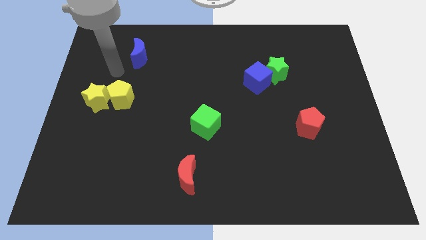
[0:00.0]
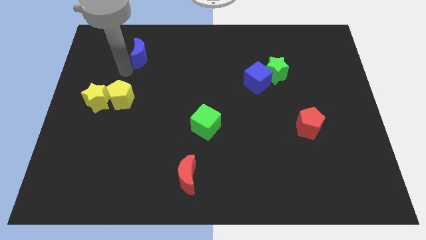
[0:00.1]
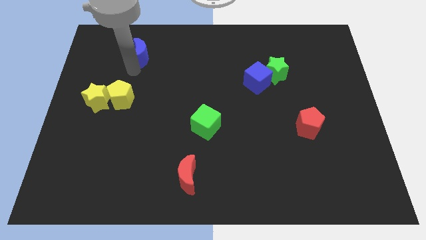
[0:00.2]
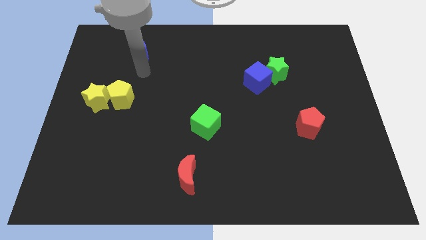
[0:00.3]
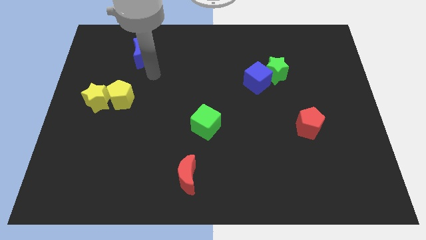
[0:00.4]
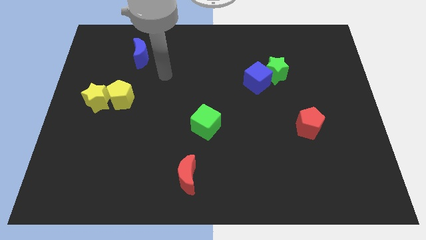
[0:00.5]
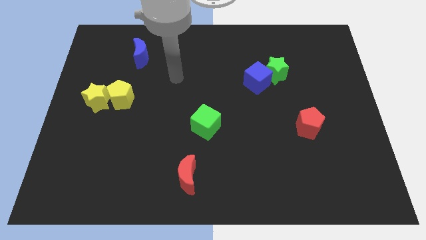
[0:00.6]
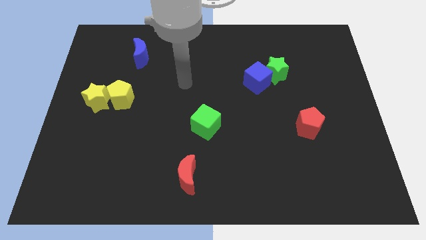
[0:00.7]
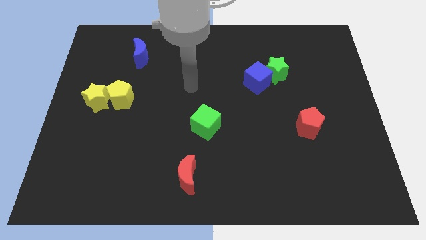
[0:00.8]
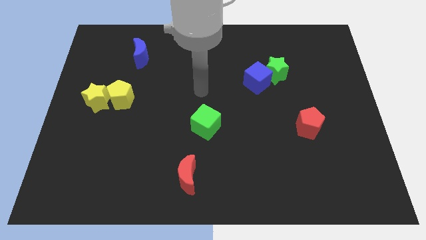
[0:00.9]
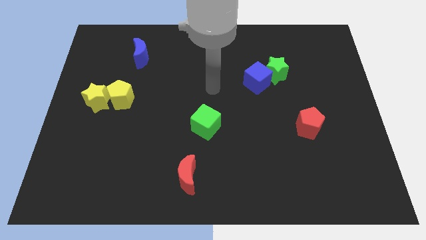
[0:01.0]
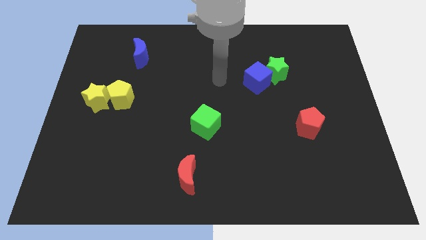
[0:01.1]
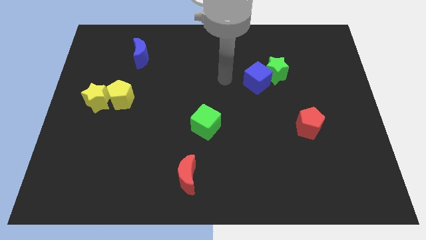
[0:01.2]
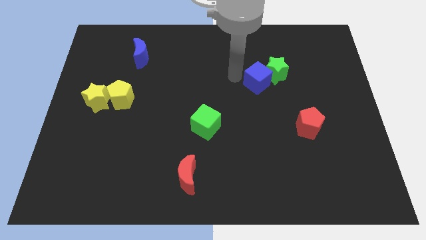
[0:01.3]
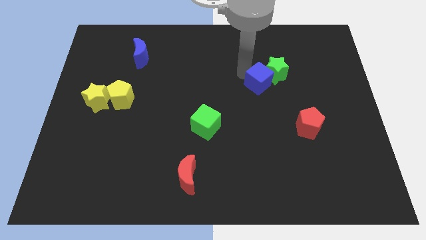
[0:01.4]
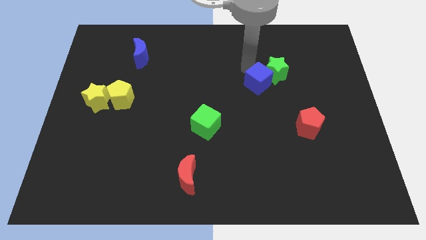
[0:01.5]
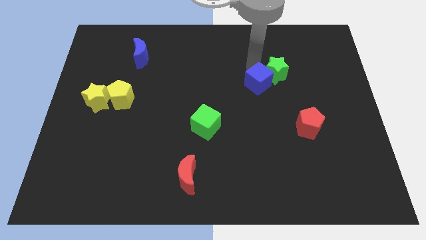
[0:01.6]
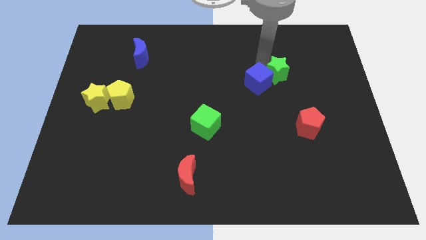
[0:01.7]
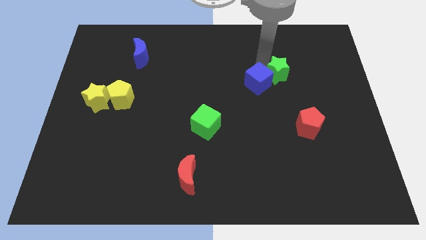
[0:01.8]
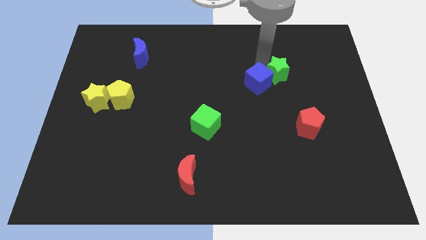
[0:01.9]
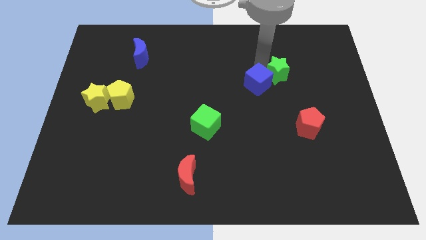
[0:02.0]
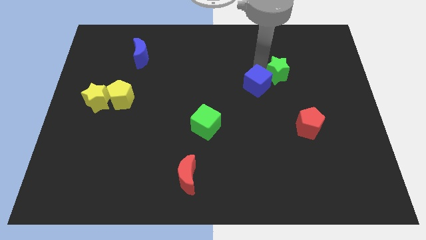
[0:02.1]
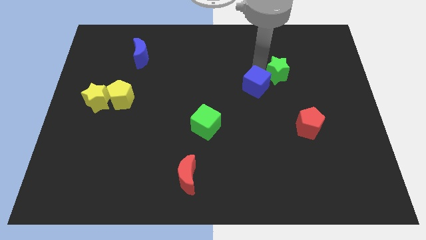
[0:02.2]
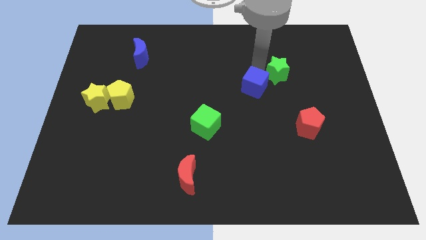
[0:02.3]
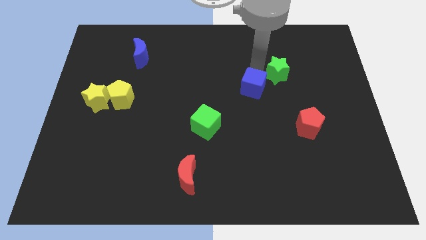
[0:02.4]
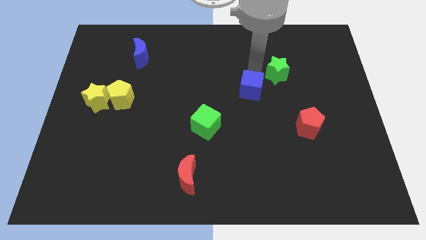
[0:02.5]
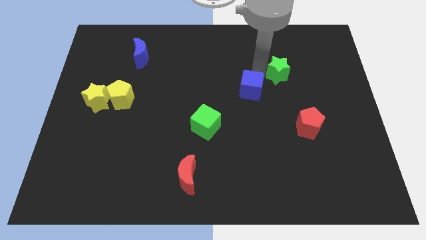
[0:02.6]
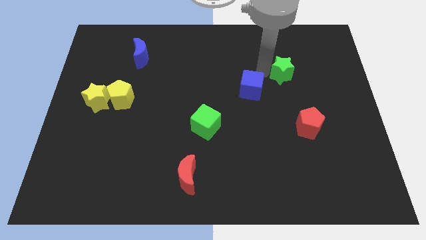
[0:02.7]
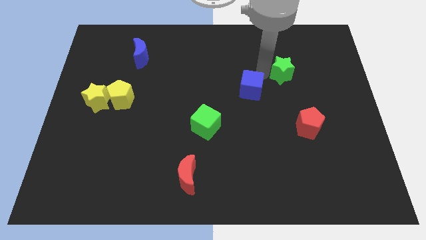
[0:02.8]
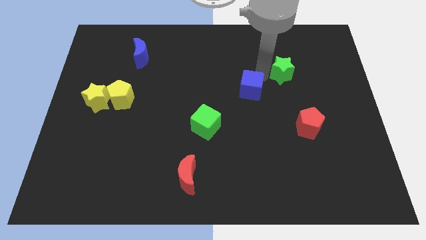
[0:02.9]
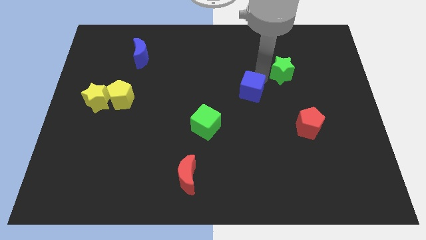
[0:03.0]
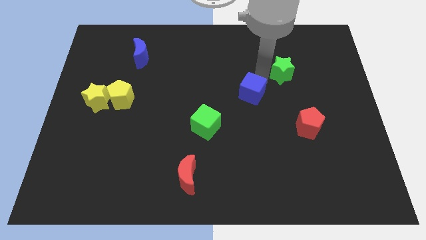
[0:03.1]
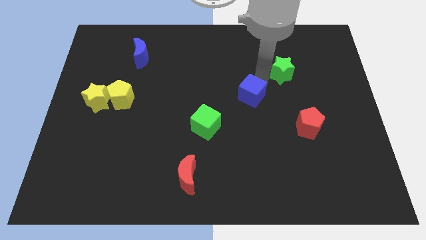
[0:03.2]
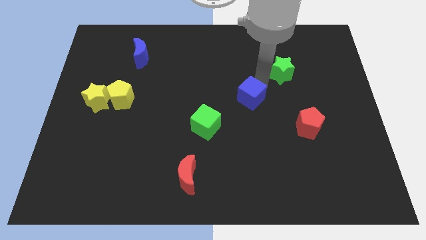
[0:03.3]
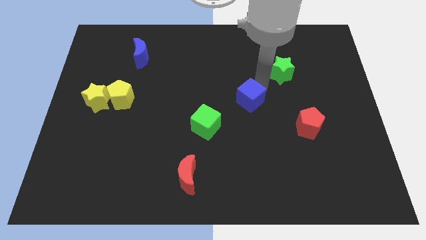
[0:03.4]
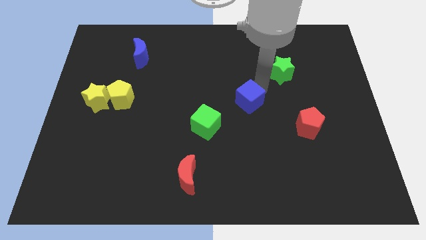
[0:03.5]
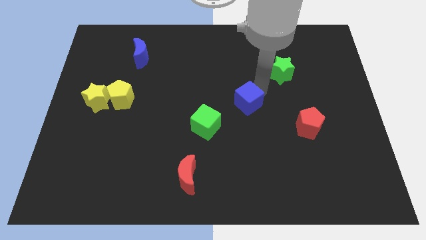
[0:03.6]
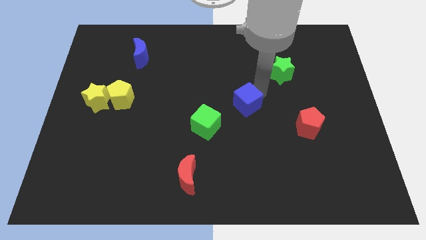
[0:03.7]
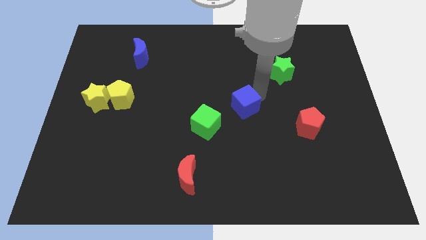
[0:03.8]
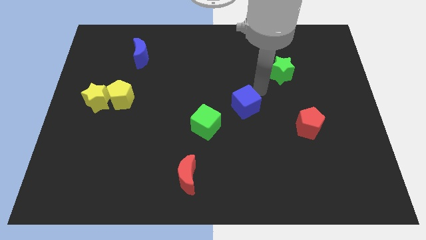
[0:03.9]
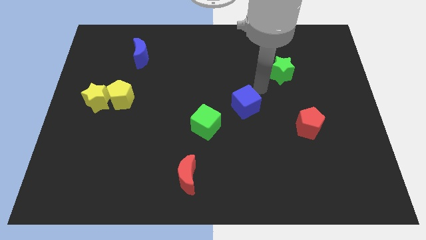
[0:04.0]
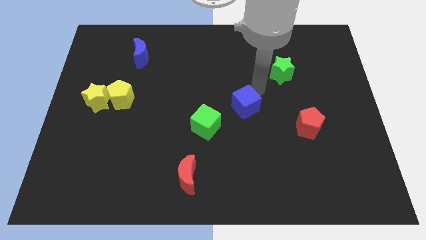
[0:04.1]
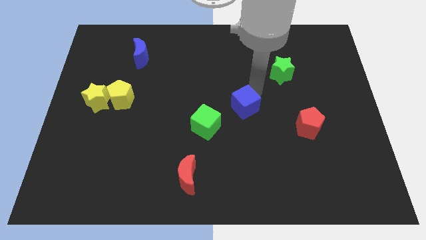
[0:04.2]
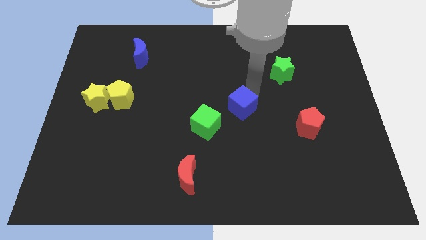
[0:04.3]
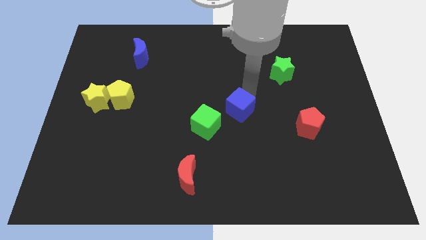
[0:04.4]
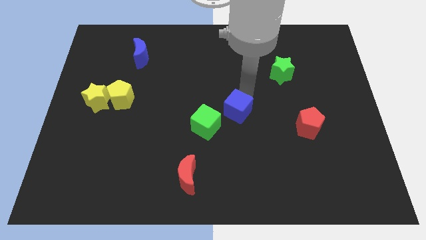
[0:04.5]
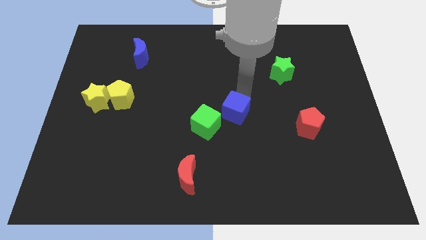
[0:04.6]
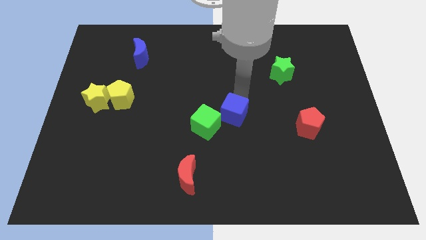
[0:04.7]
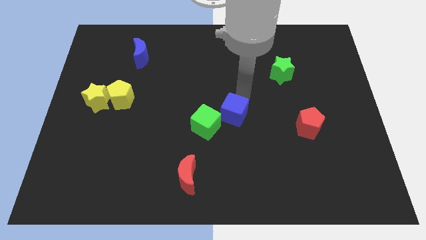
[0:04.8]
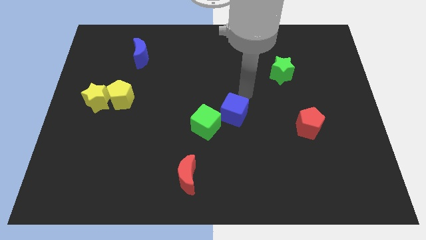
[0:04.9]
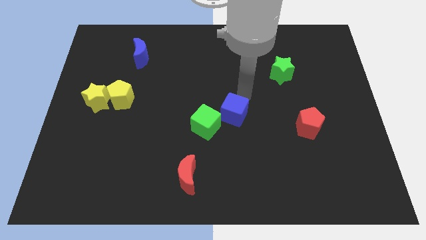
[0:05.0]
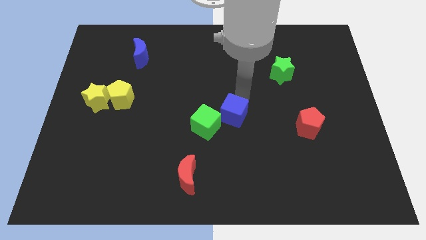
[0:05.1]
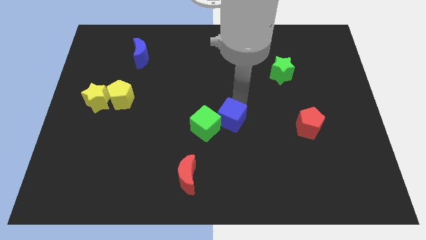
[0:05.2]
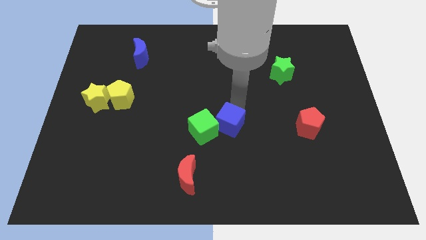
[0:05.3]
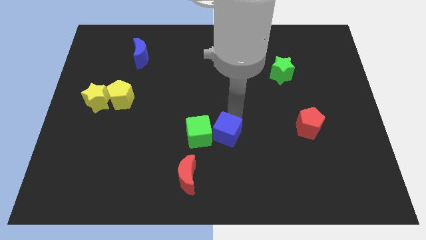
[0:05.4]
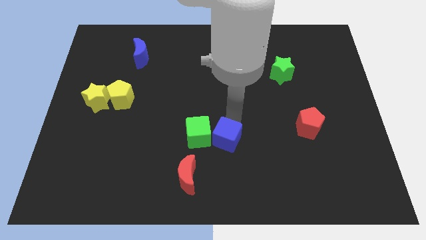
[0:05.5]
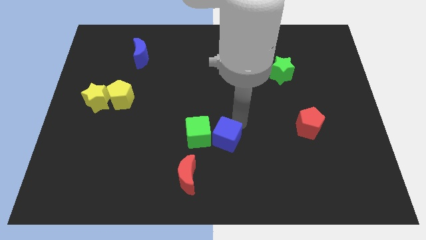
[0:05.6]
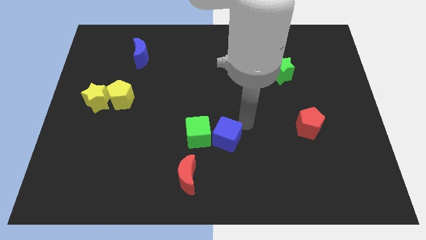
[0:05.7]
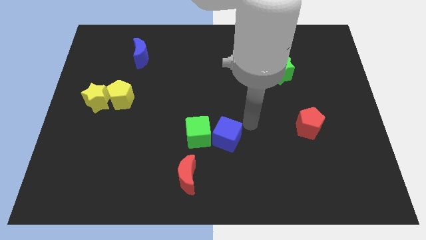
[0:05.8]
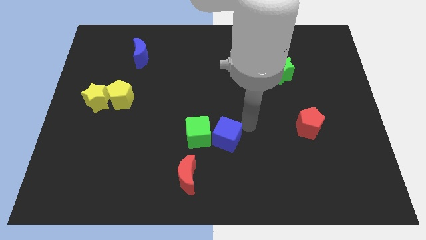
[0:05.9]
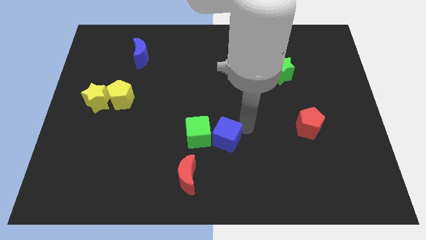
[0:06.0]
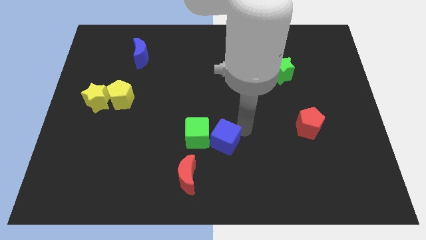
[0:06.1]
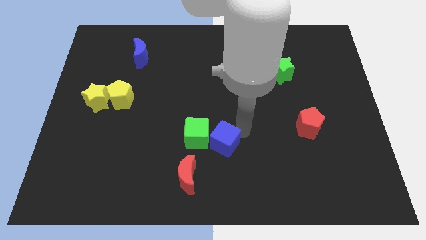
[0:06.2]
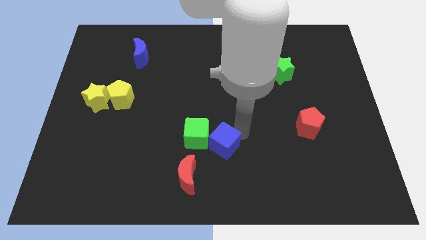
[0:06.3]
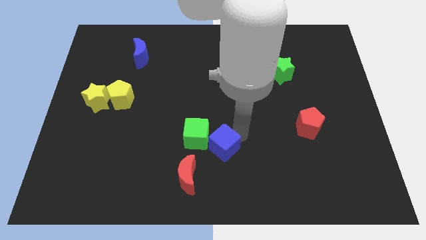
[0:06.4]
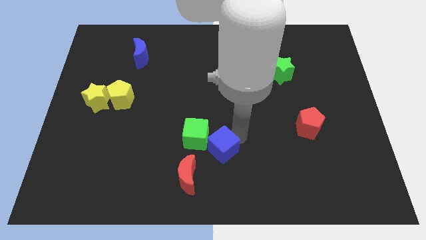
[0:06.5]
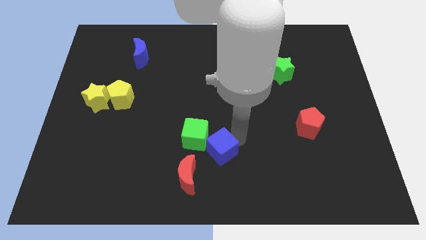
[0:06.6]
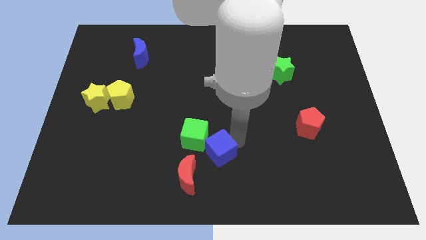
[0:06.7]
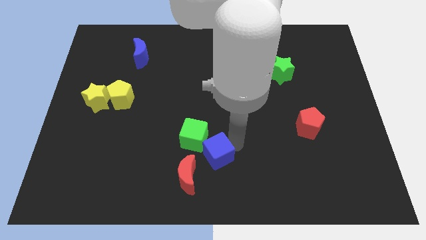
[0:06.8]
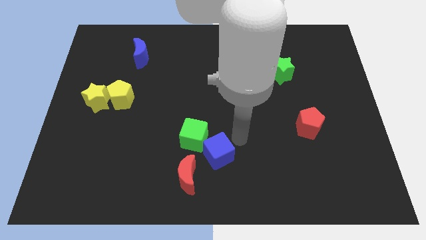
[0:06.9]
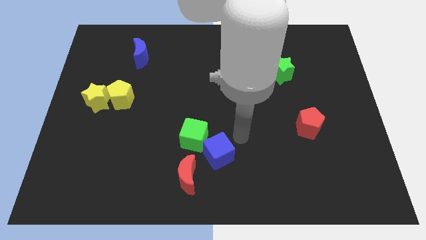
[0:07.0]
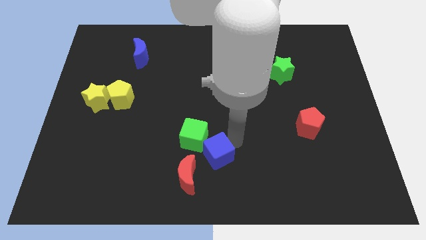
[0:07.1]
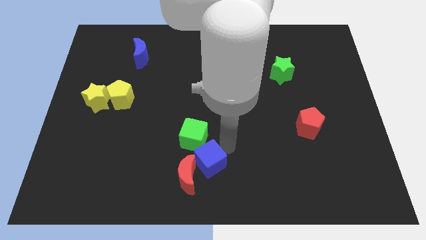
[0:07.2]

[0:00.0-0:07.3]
slide the blue cube towards the red moon

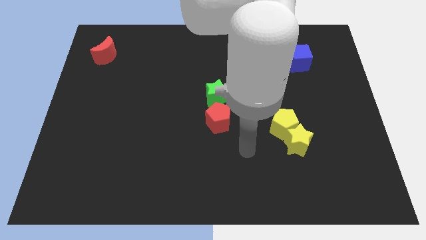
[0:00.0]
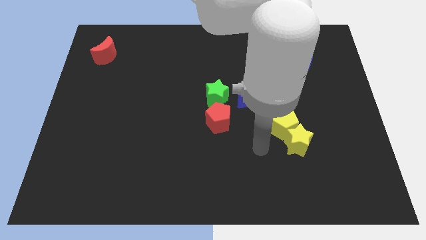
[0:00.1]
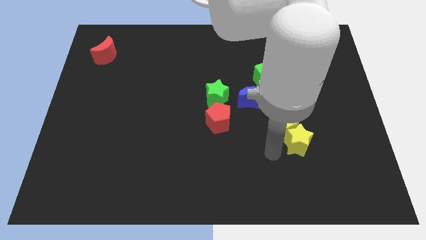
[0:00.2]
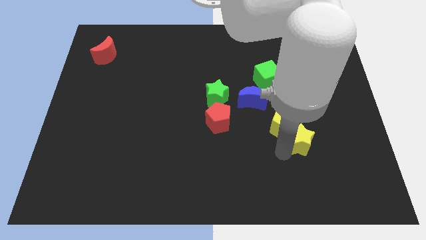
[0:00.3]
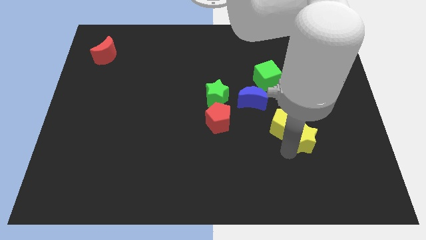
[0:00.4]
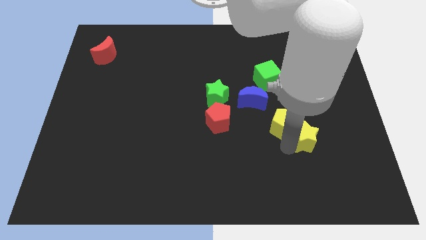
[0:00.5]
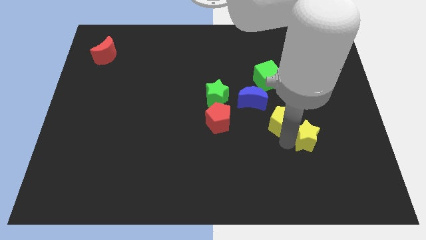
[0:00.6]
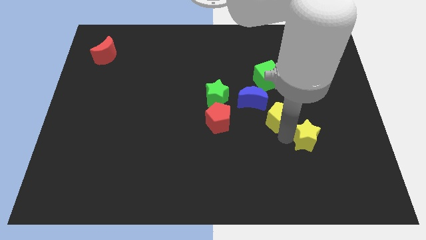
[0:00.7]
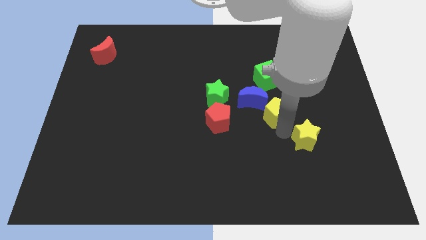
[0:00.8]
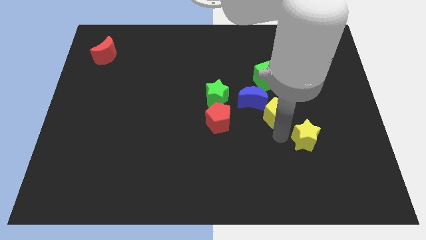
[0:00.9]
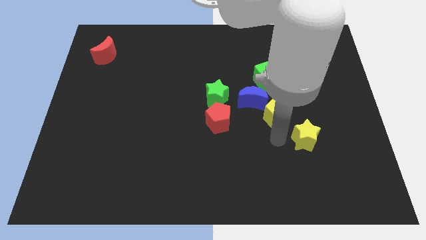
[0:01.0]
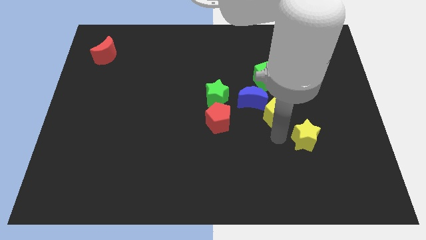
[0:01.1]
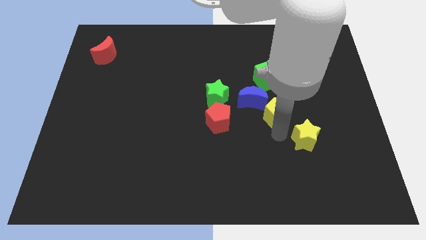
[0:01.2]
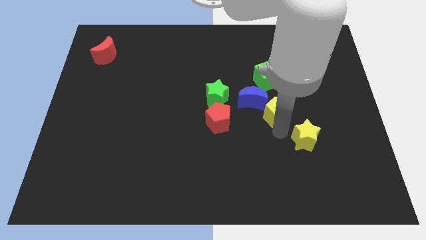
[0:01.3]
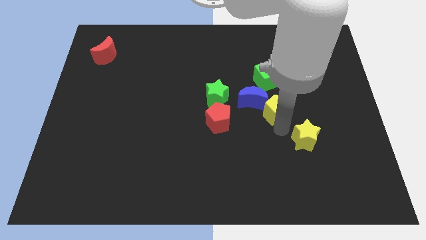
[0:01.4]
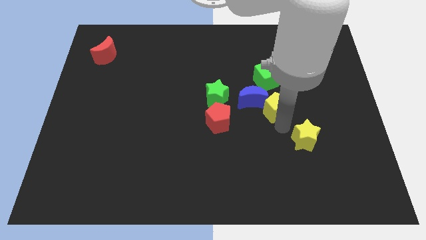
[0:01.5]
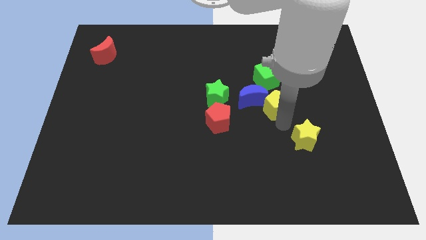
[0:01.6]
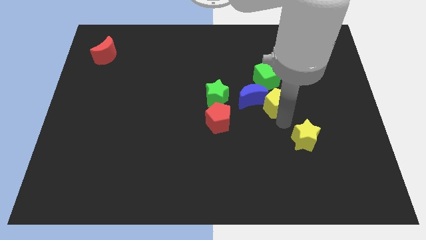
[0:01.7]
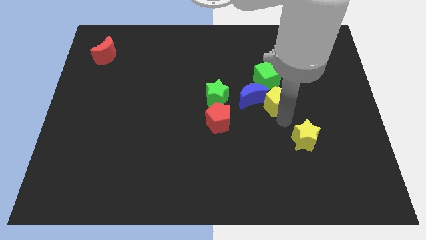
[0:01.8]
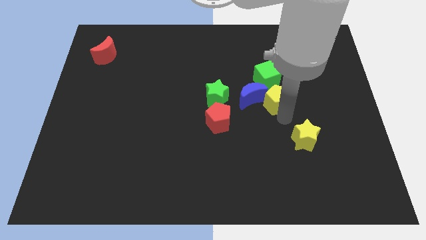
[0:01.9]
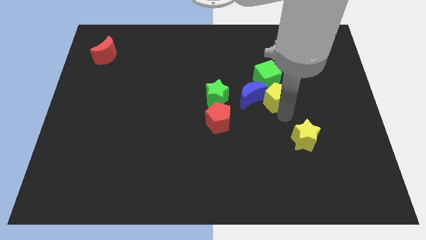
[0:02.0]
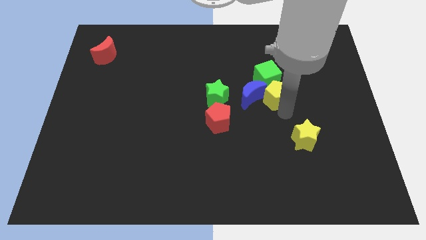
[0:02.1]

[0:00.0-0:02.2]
put the yellow pentagon close to the green cube
